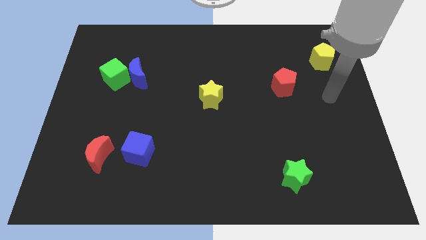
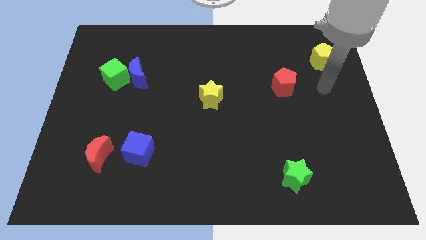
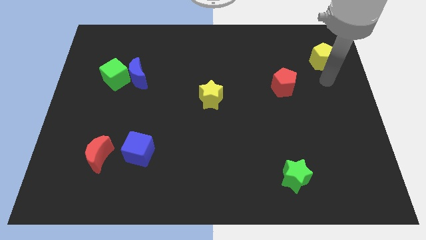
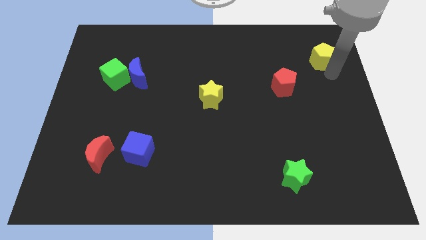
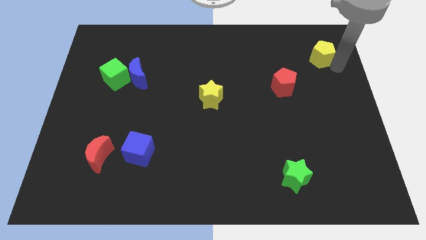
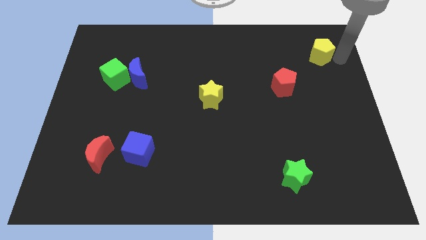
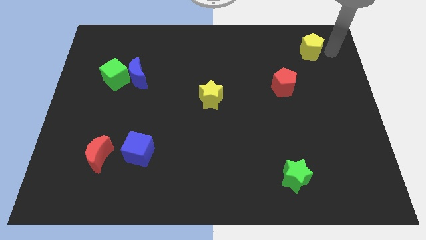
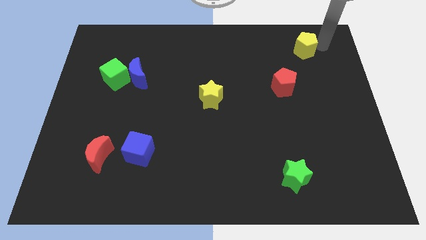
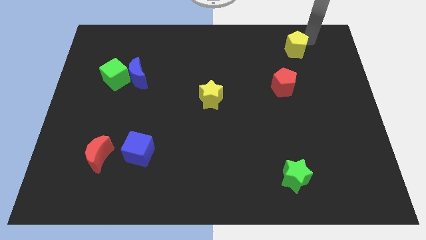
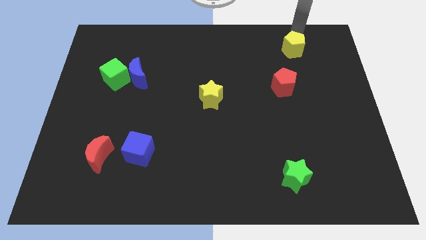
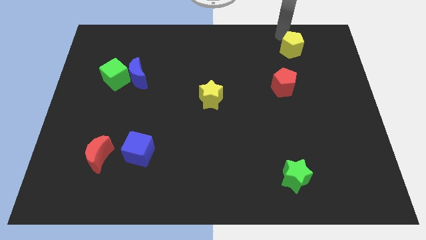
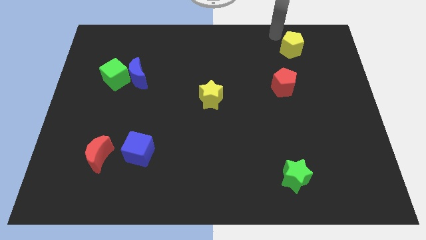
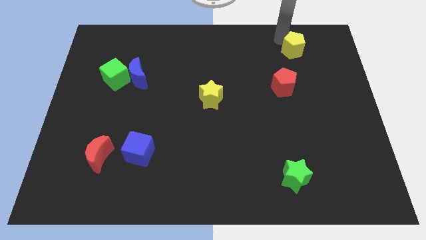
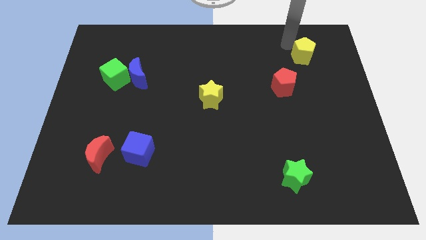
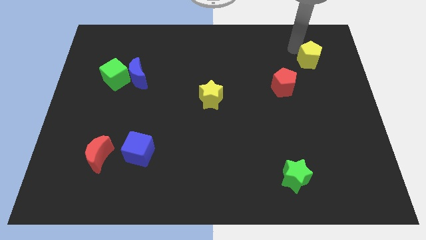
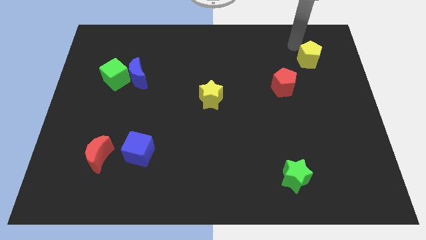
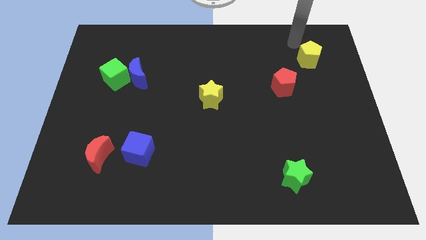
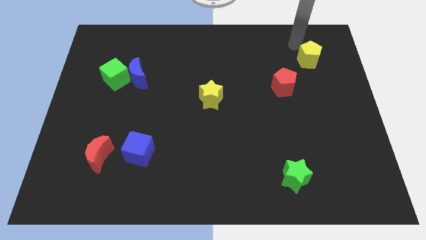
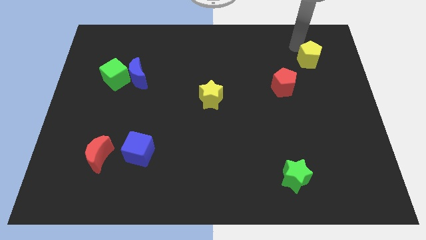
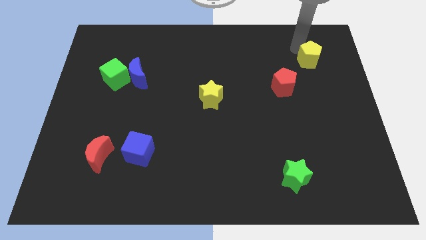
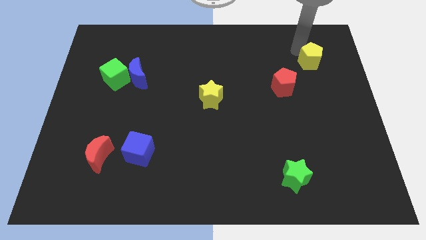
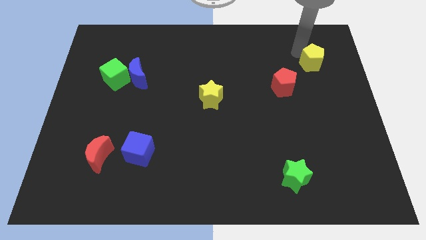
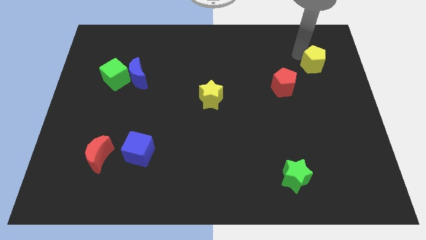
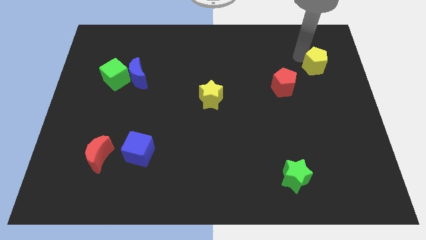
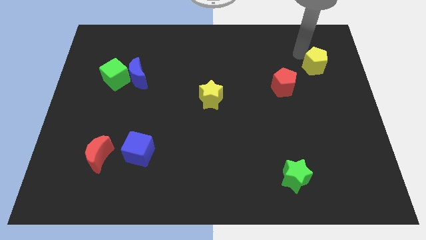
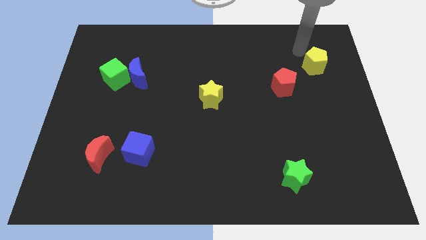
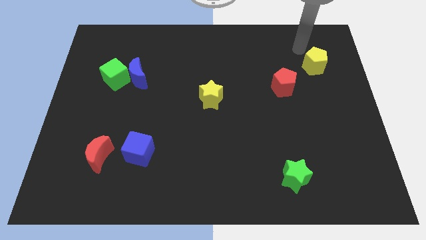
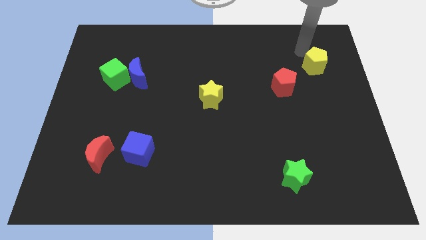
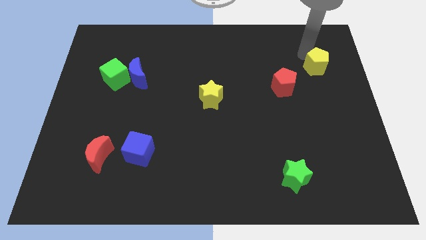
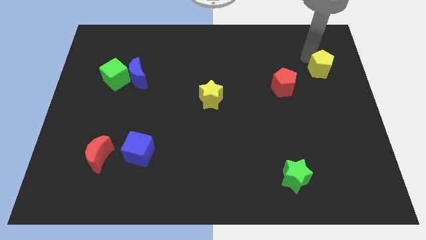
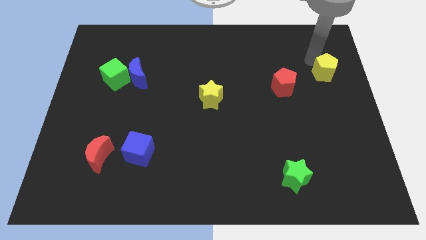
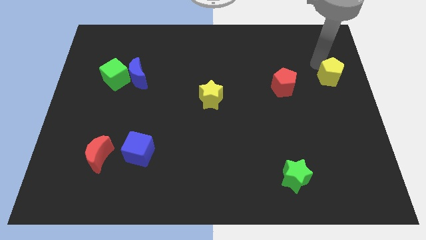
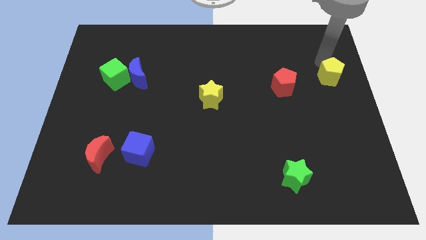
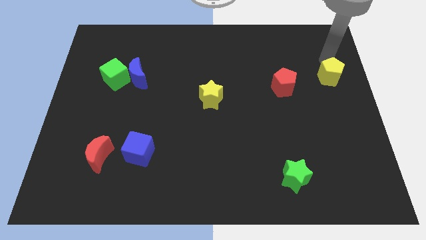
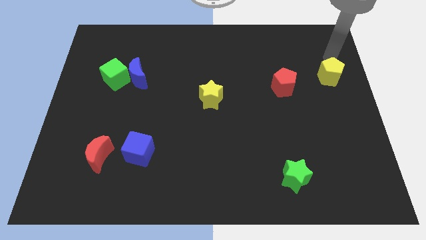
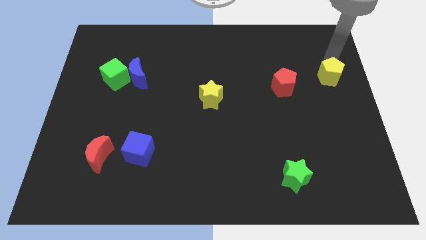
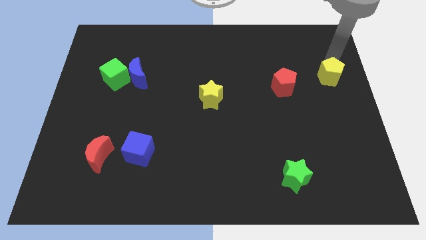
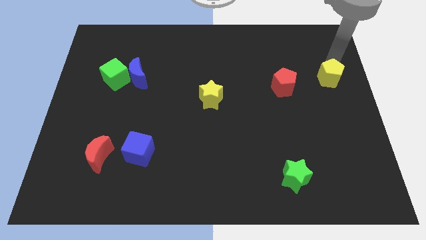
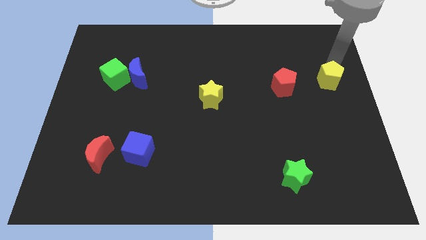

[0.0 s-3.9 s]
push the yellow pentagon down somewhat

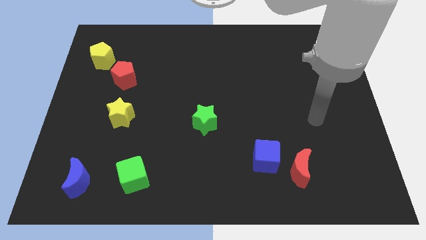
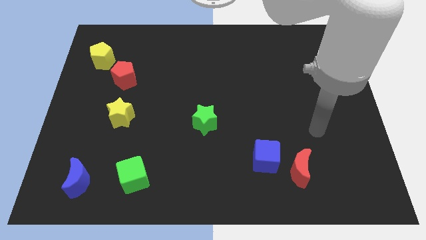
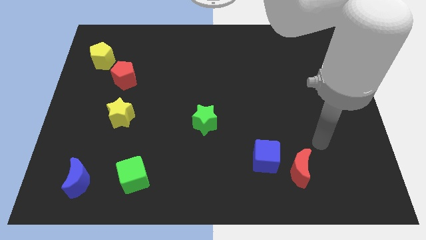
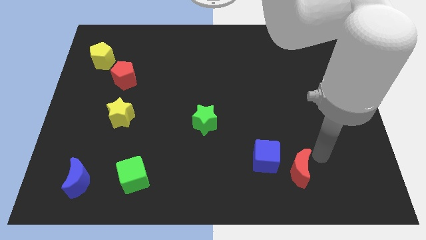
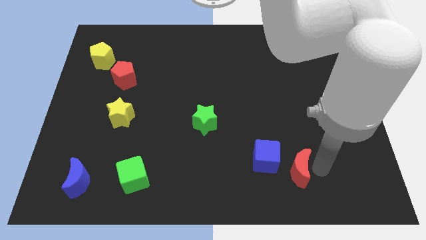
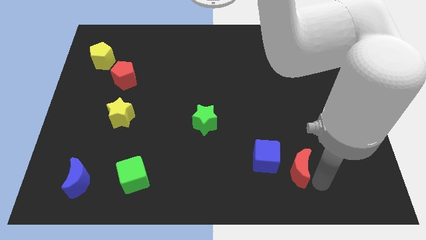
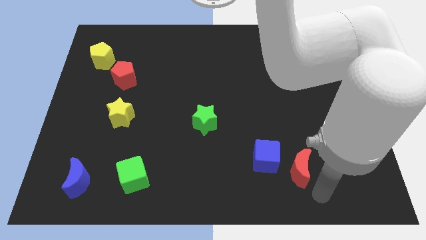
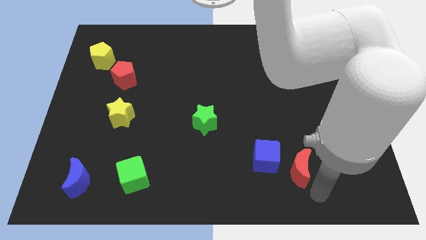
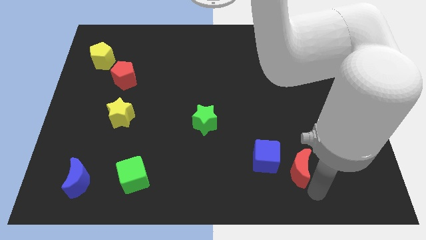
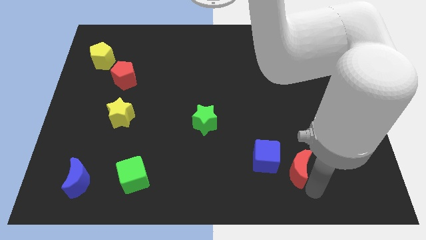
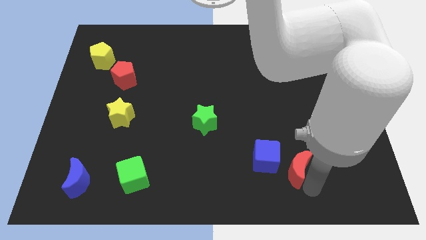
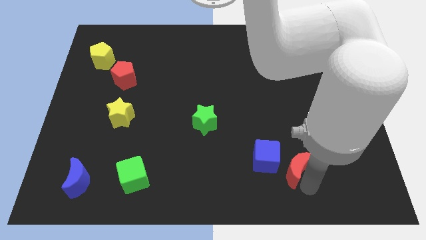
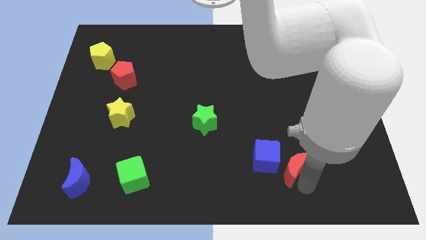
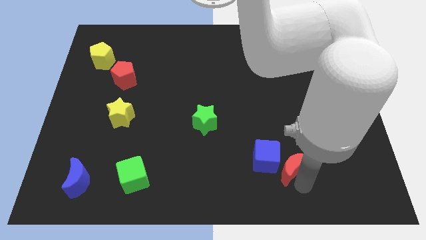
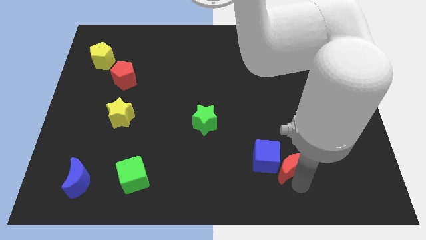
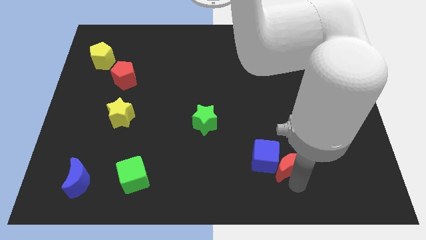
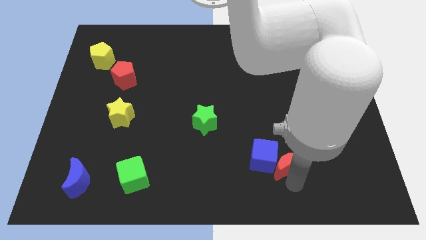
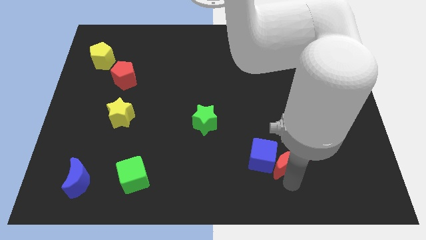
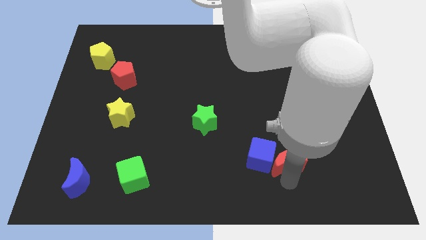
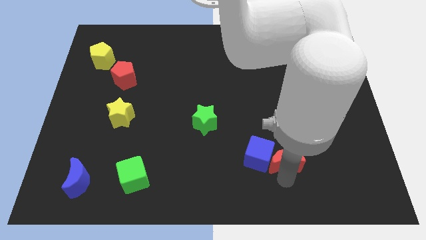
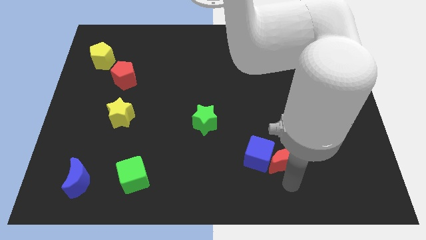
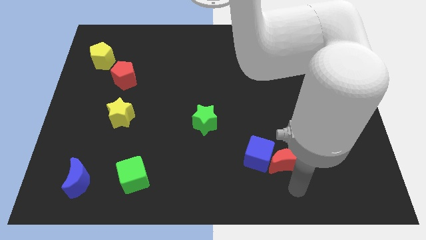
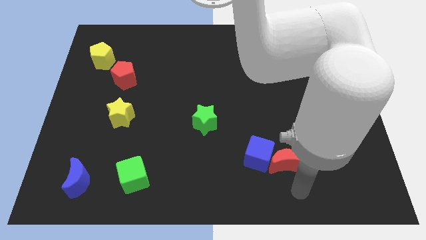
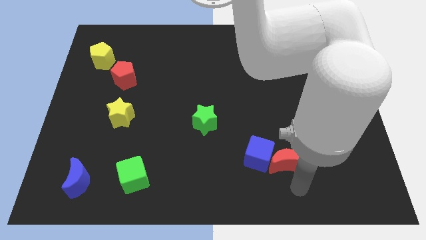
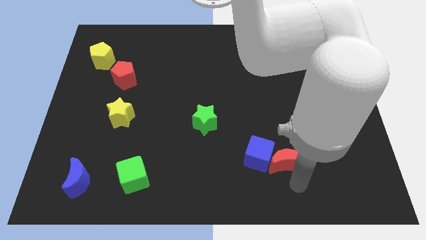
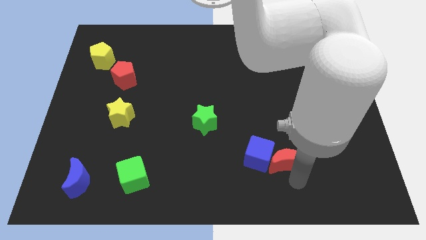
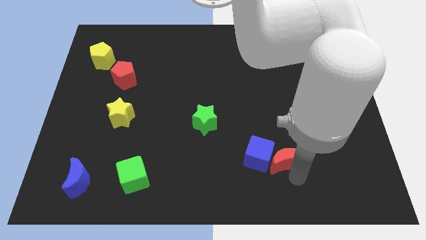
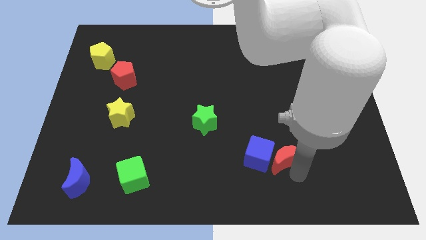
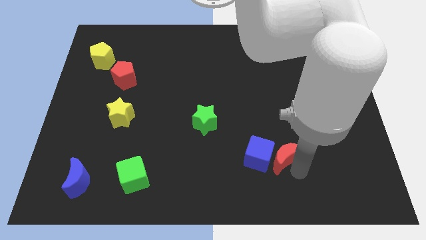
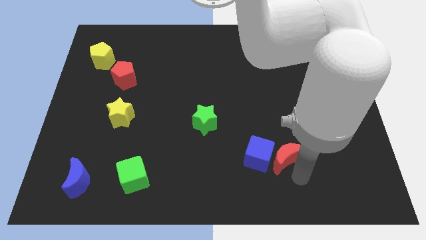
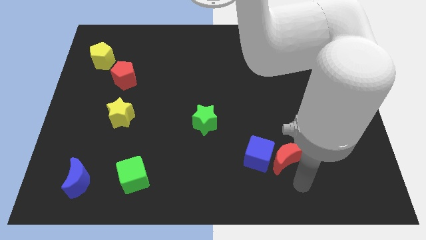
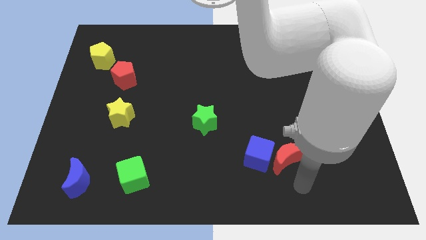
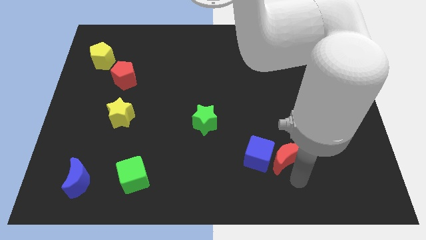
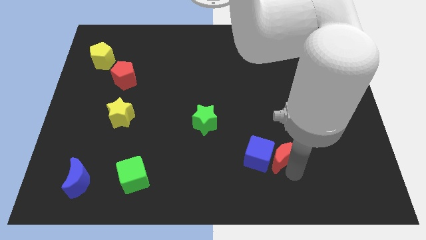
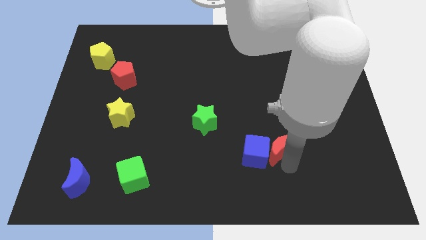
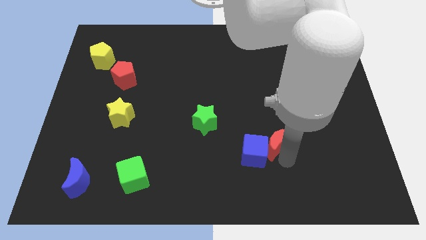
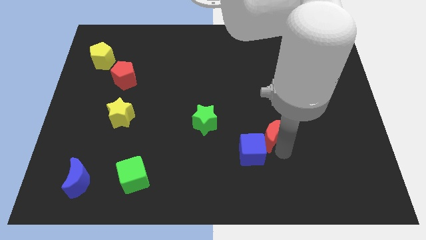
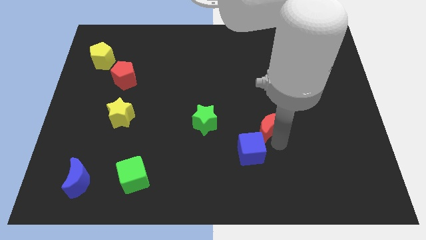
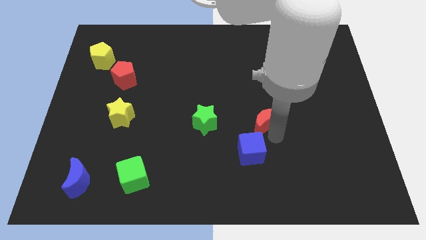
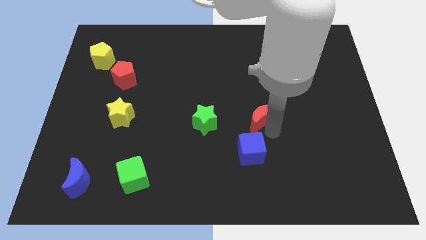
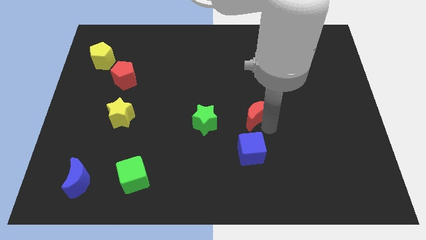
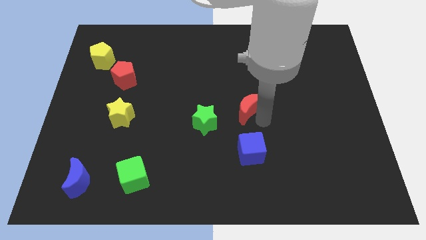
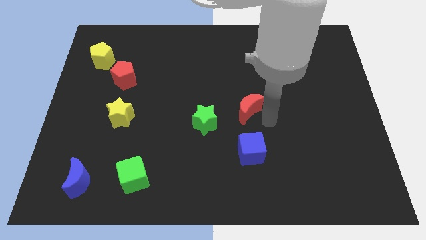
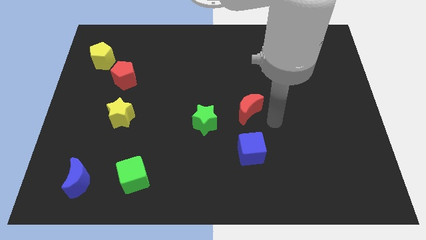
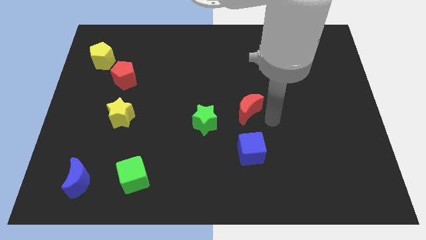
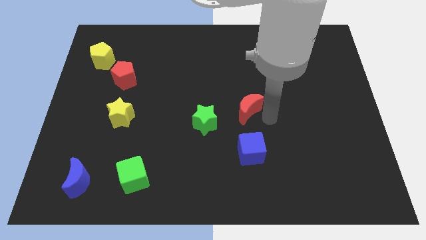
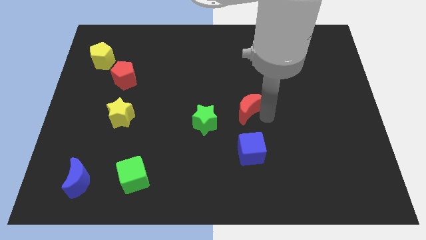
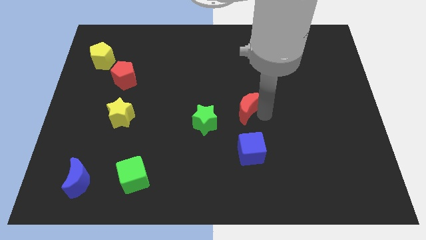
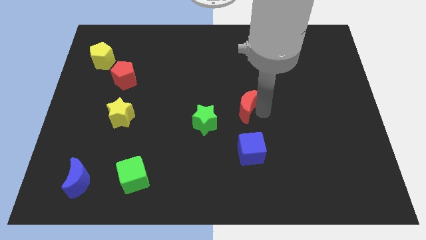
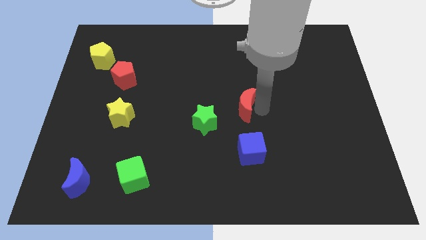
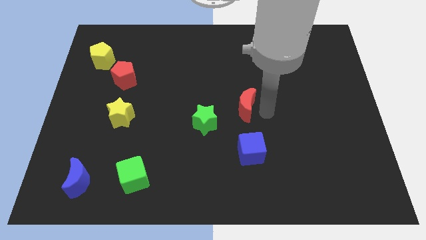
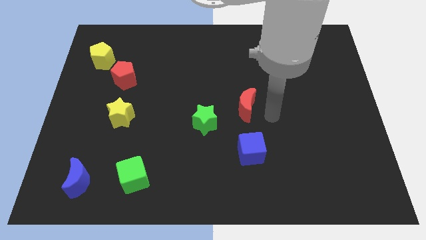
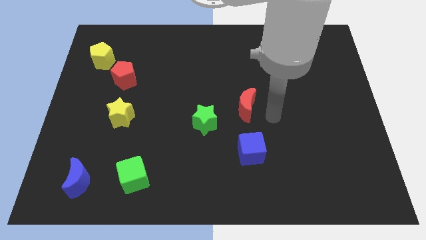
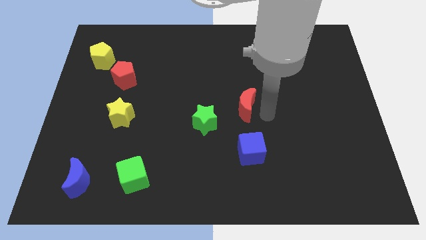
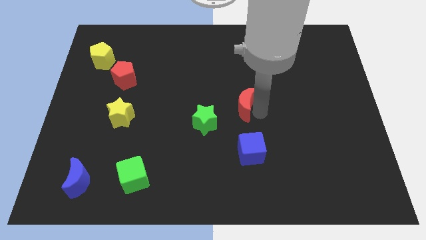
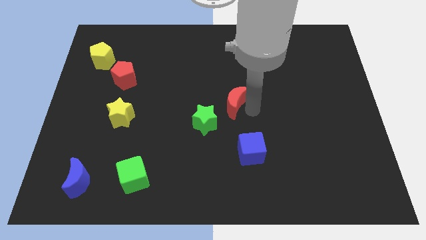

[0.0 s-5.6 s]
slide the red moon up and left diagonally
